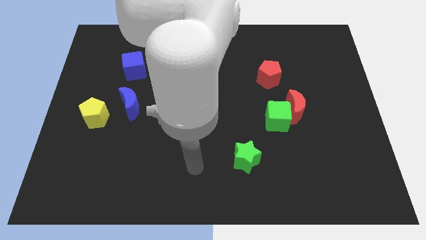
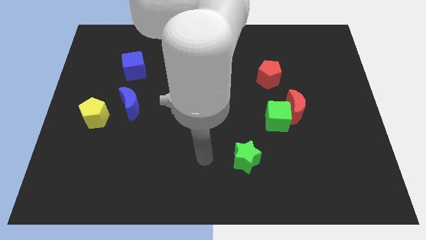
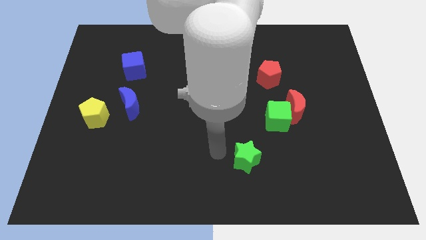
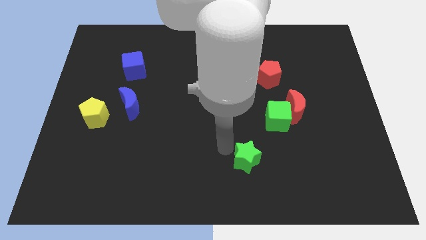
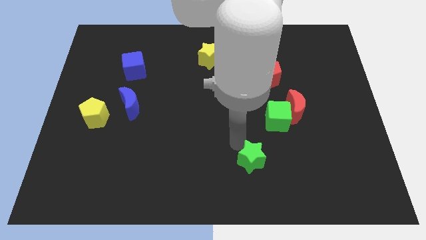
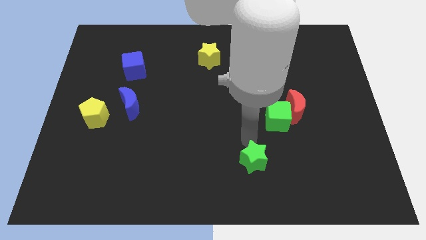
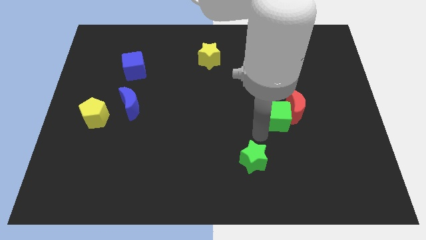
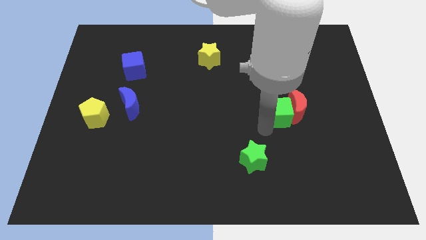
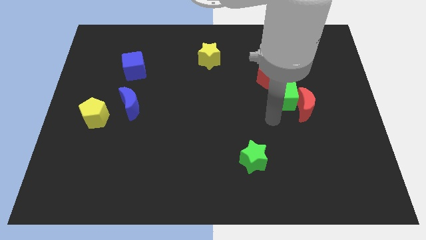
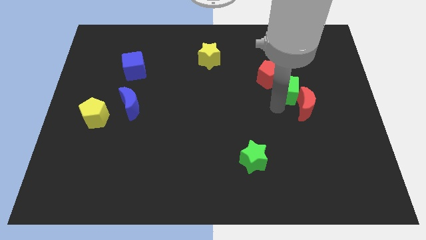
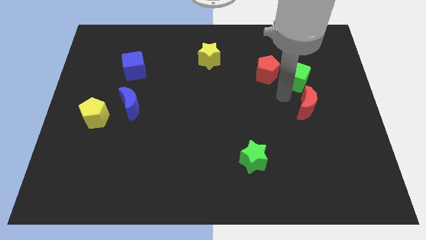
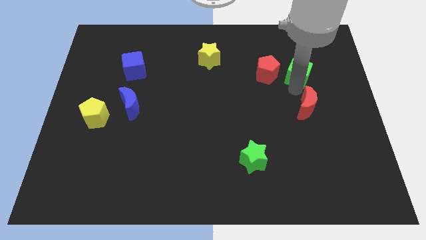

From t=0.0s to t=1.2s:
move the red moon away from the green cube

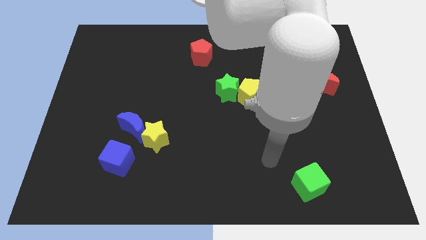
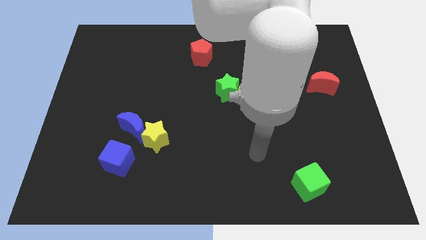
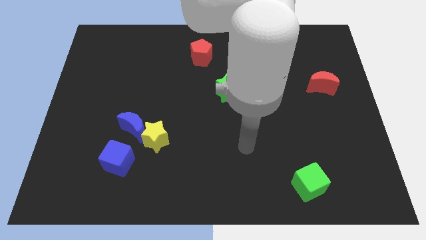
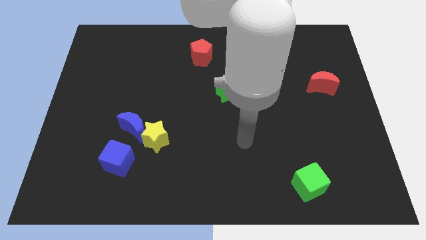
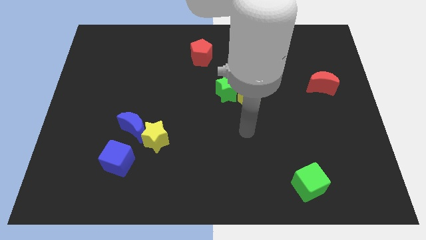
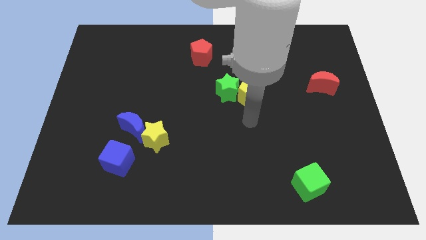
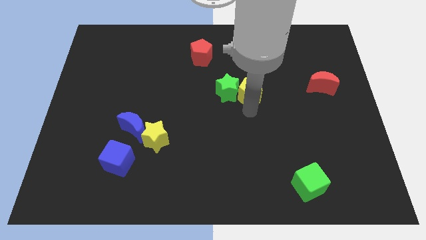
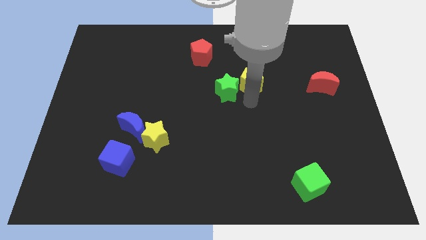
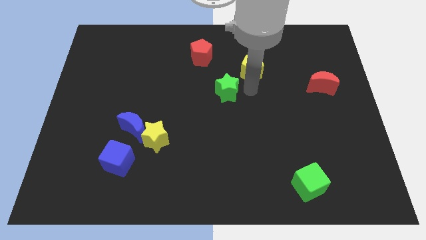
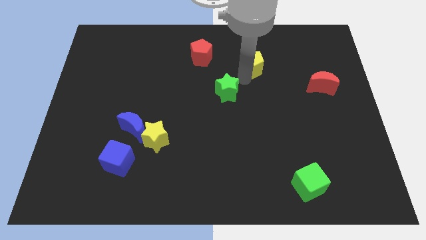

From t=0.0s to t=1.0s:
move the green star away from the yellow pentagon

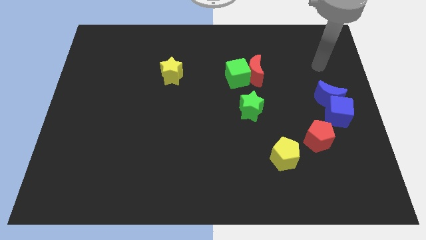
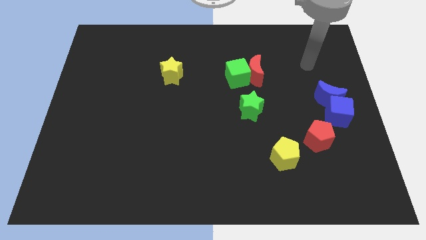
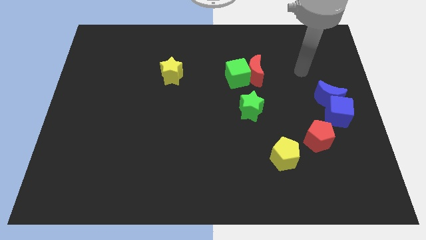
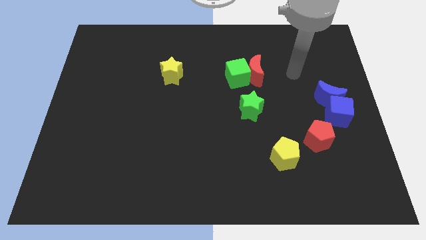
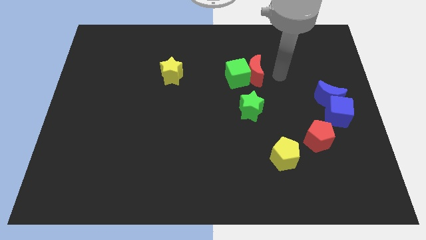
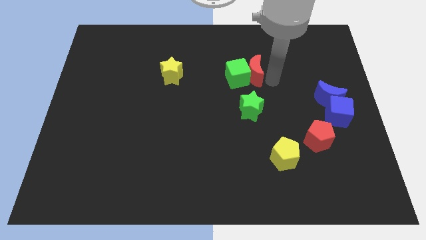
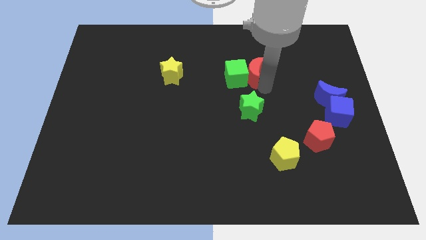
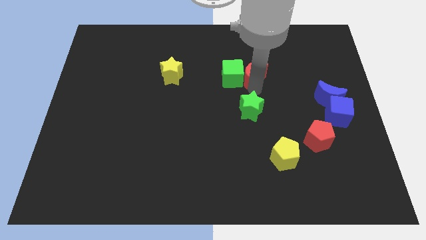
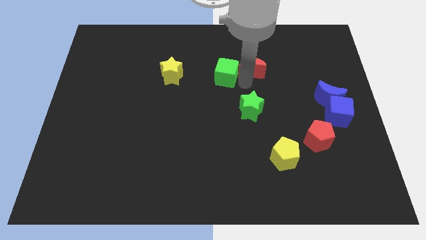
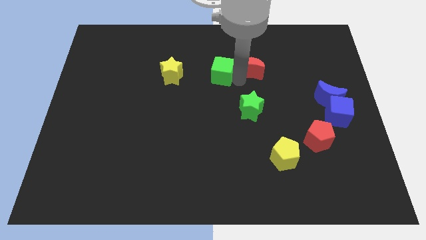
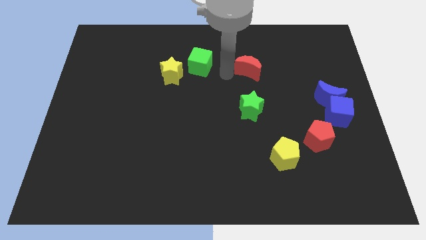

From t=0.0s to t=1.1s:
pull the red moon apart from the green cube

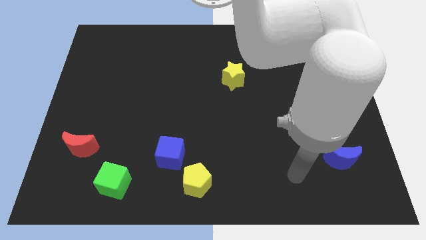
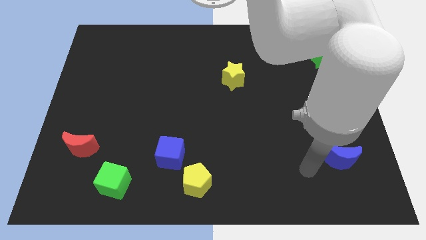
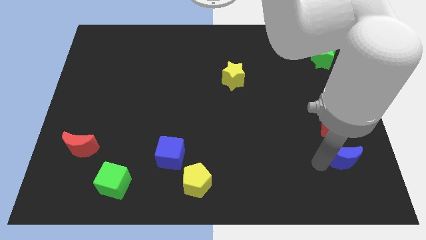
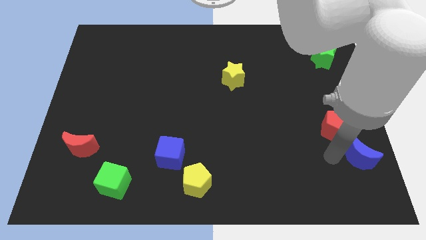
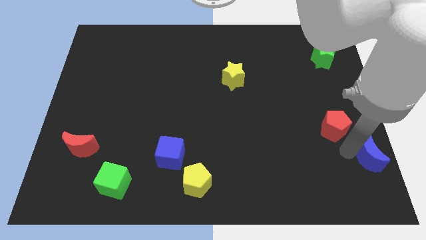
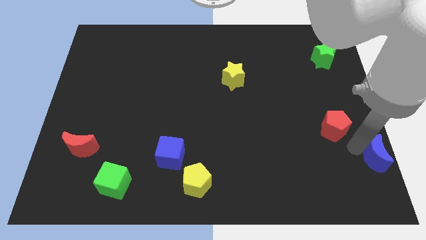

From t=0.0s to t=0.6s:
move the red pentagon away from the blue moon

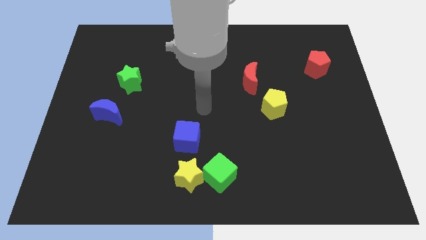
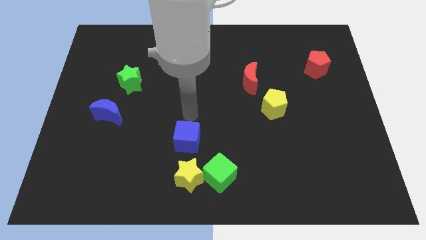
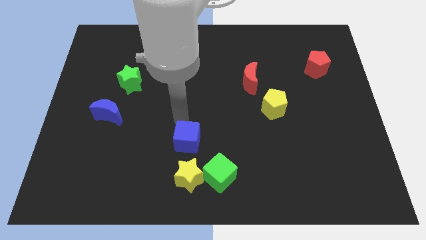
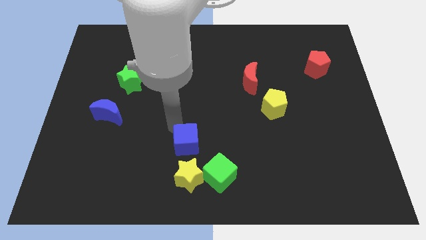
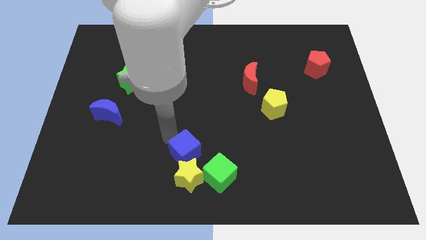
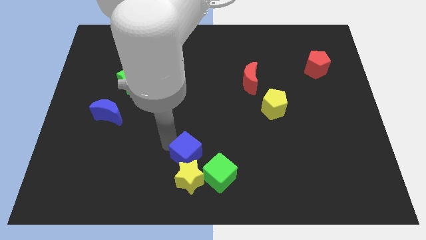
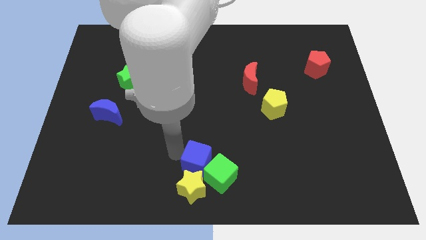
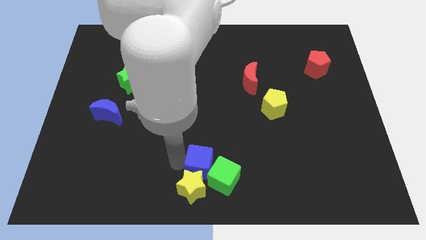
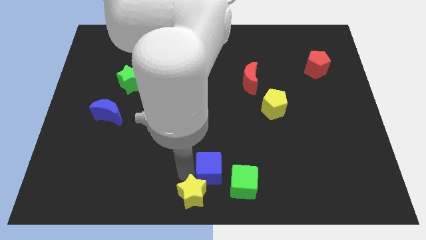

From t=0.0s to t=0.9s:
move the green cube away from the yellow star

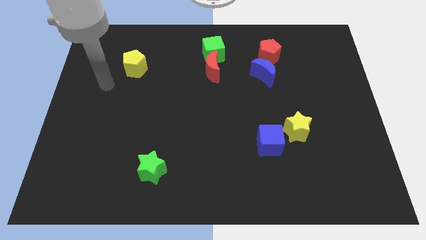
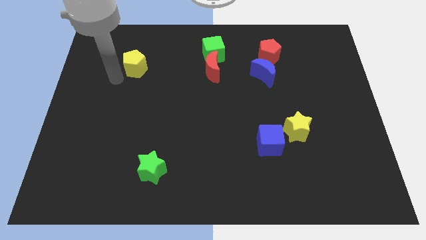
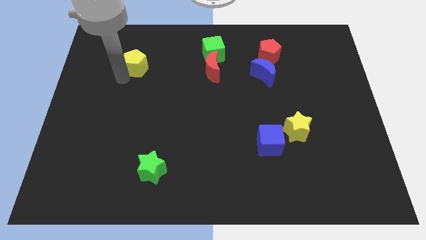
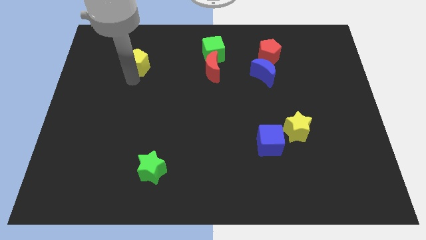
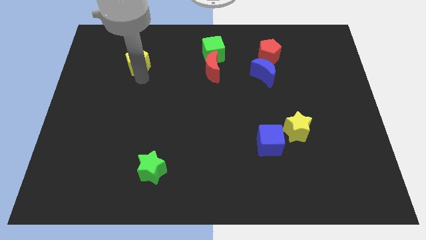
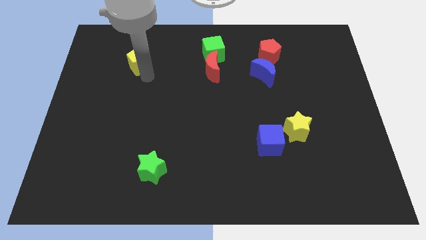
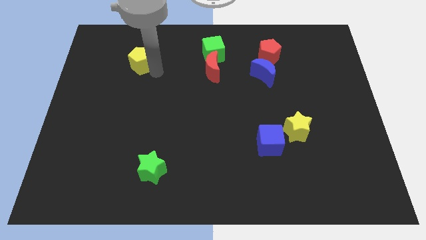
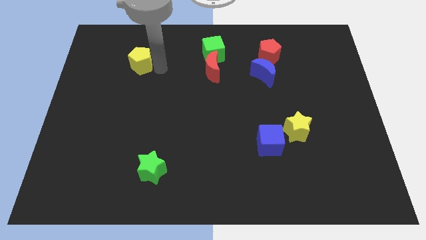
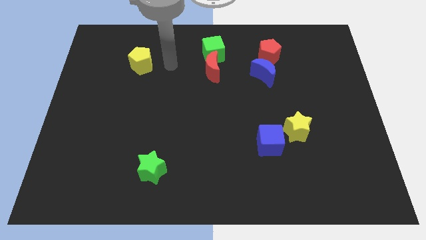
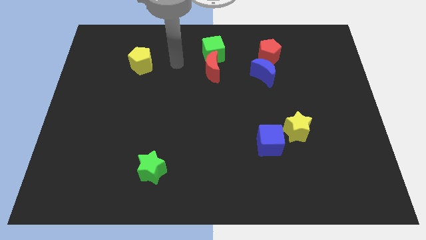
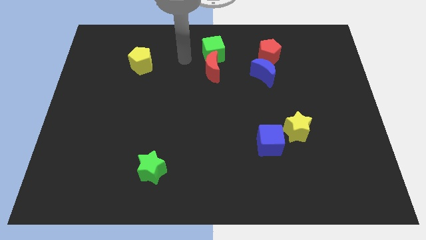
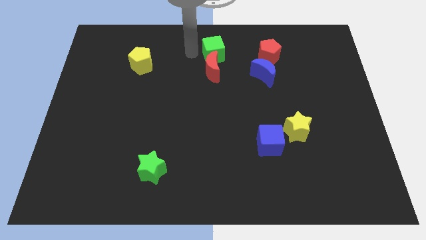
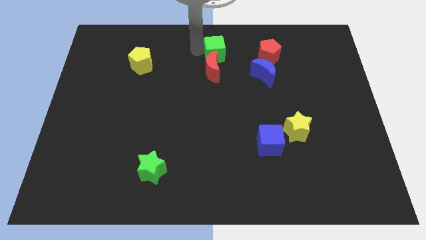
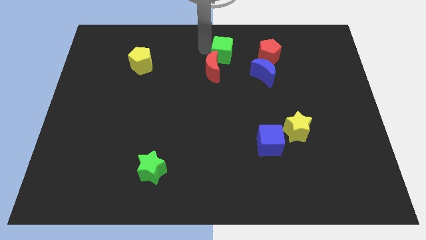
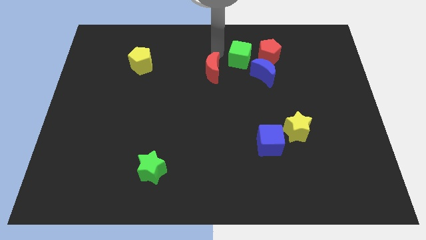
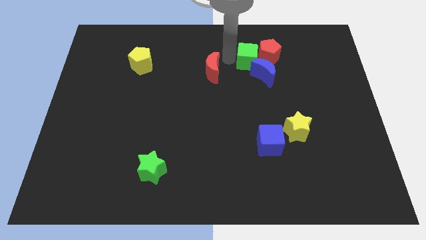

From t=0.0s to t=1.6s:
separate the red moon from the green cube

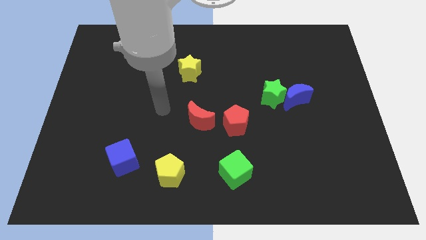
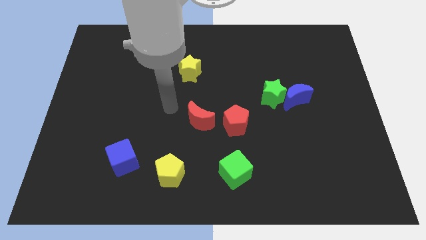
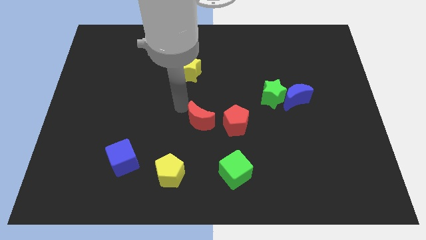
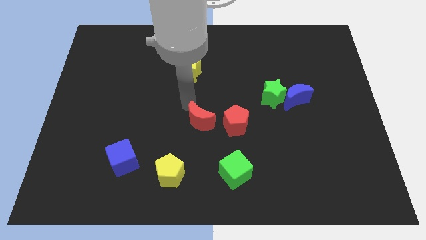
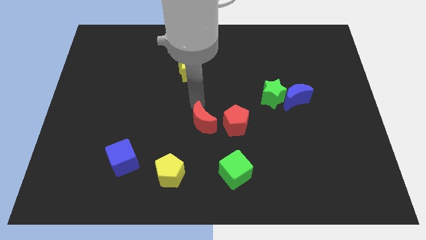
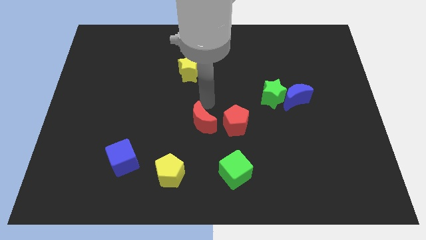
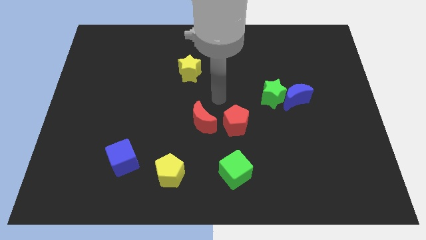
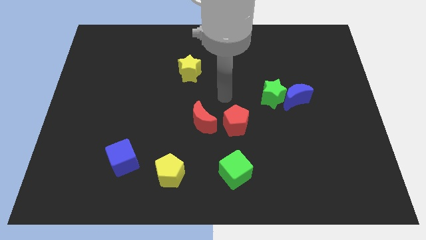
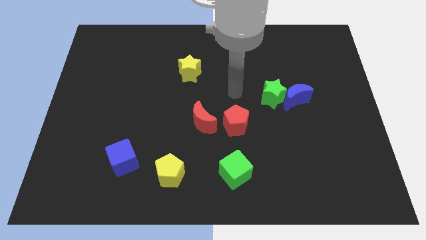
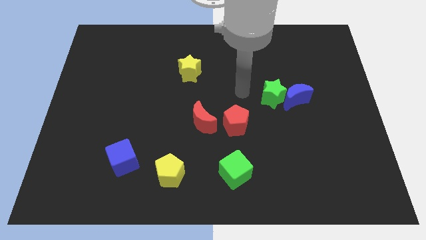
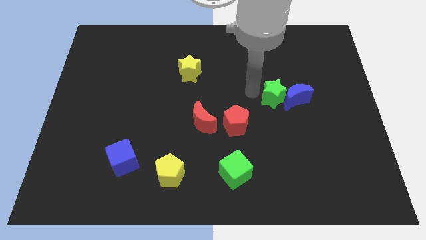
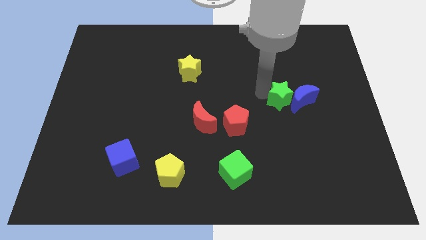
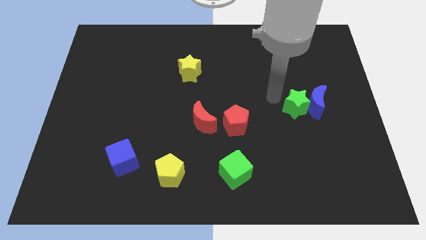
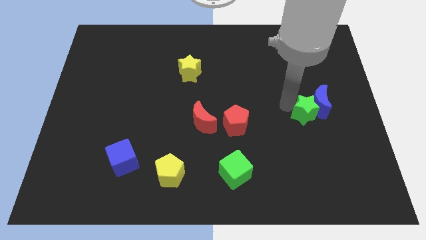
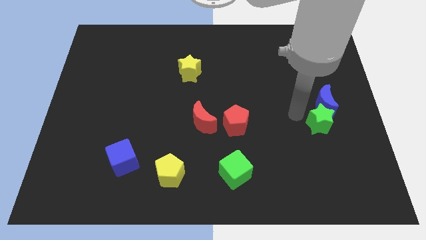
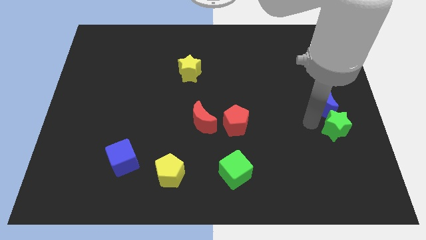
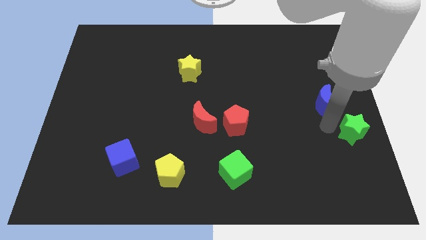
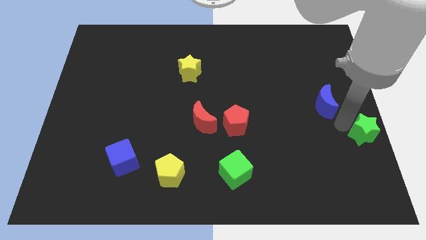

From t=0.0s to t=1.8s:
separate the blue moon from the green star

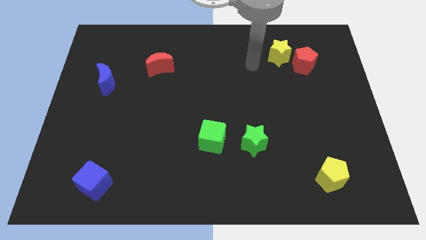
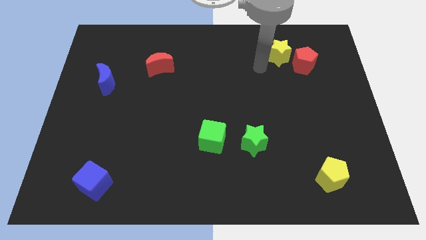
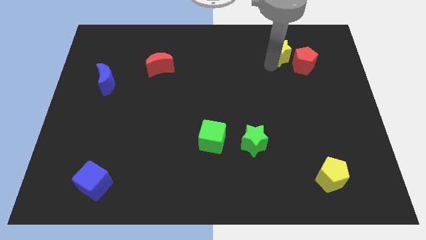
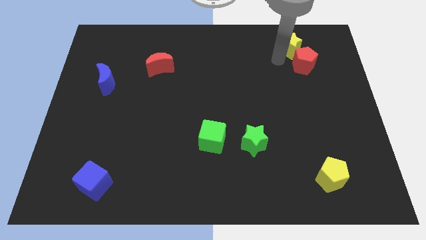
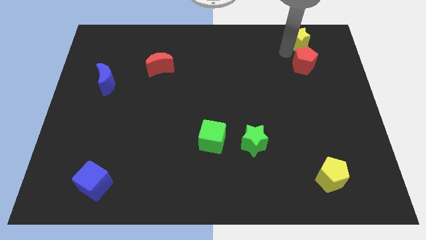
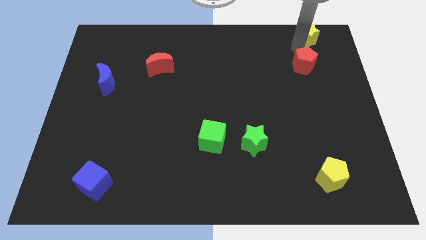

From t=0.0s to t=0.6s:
pull the red pentagon apart from the yellow star

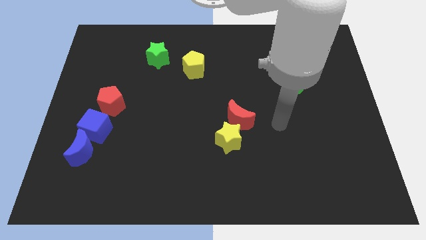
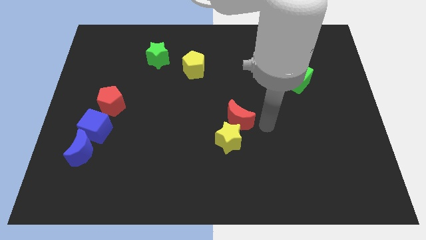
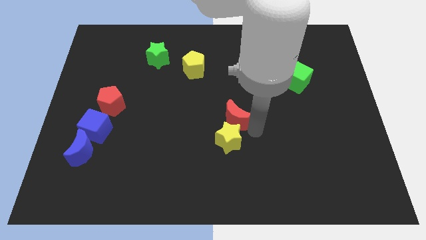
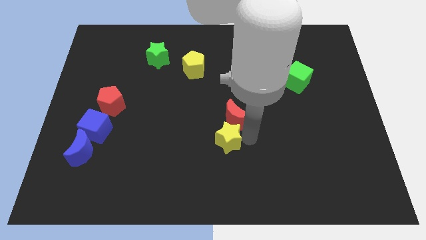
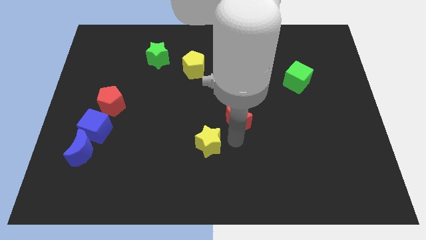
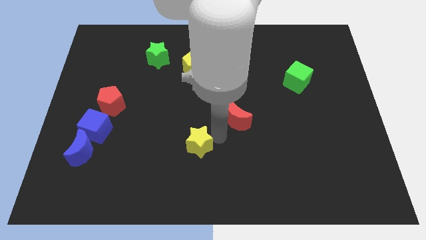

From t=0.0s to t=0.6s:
pull the red moon apart from the yellow star
